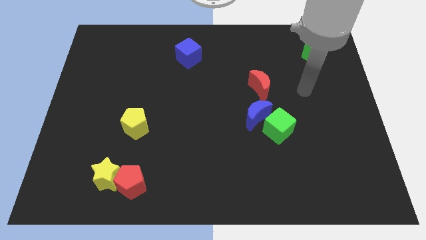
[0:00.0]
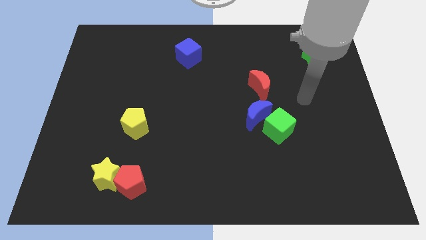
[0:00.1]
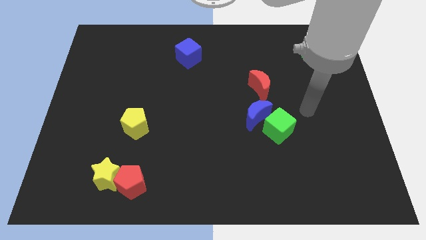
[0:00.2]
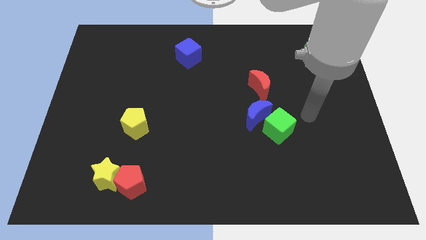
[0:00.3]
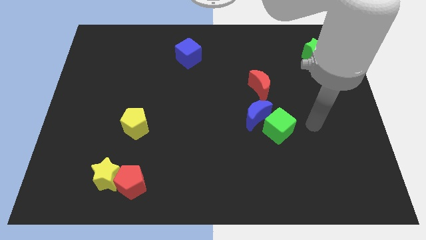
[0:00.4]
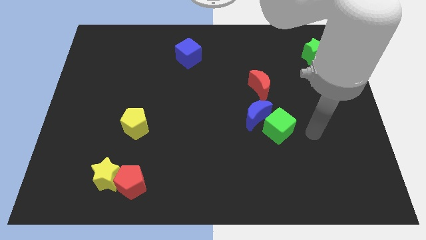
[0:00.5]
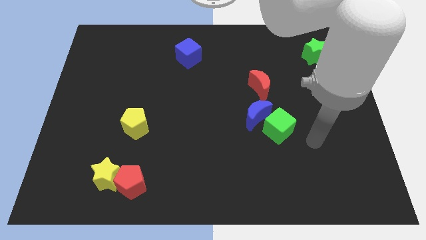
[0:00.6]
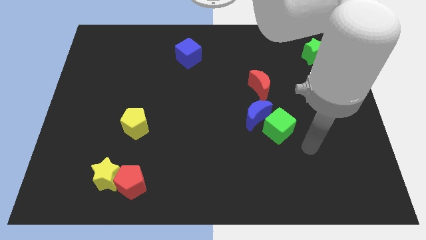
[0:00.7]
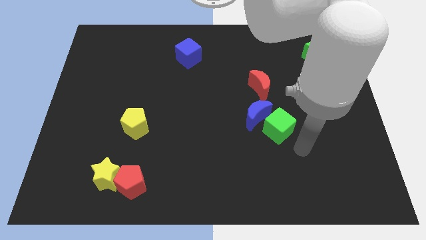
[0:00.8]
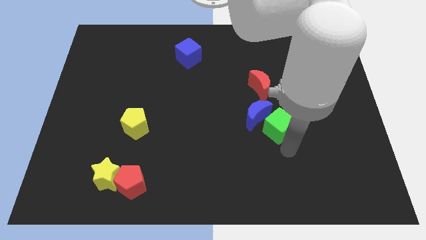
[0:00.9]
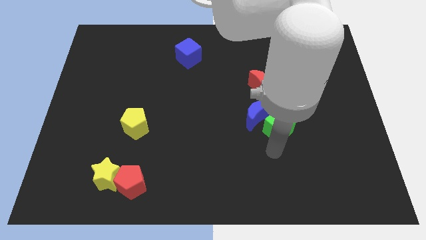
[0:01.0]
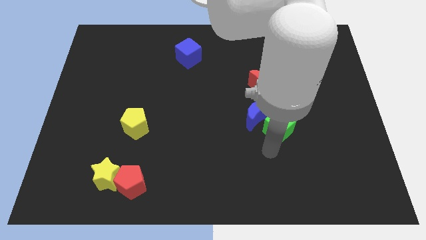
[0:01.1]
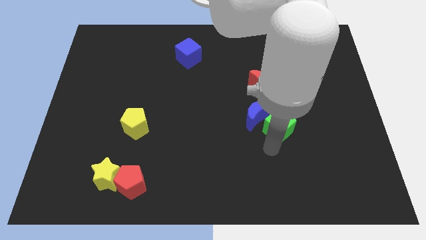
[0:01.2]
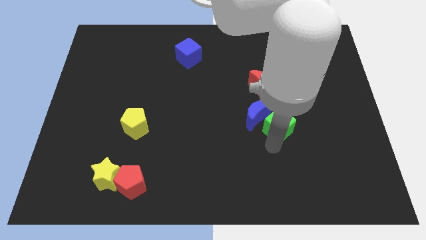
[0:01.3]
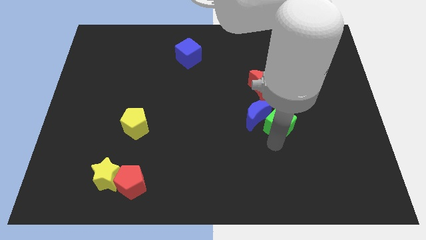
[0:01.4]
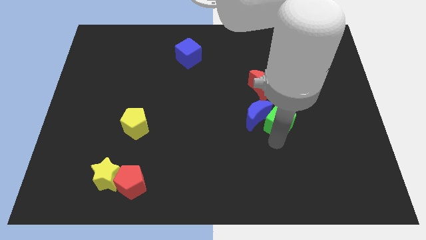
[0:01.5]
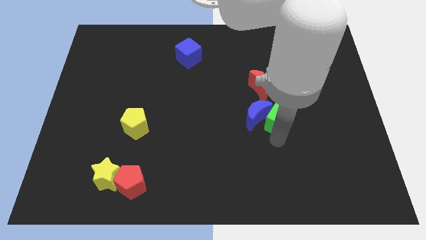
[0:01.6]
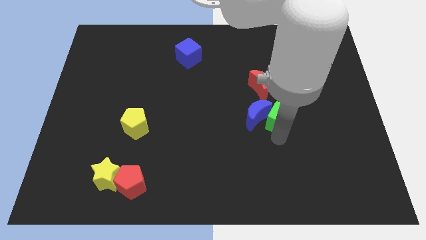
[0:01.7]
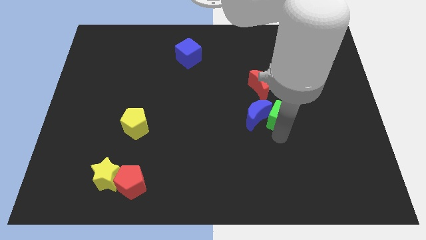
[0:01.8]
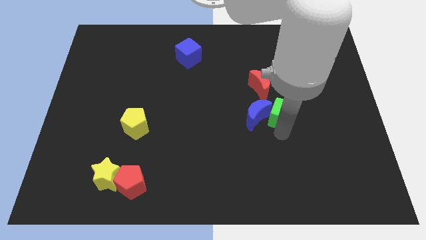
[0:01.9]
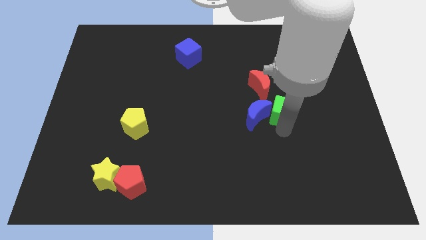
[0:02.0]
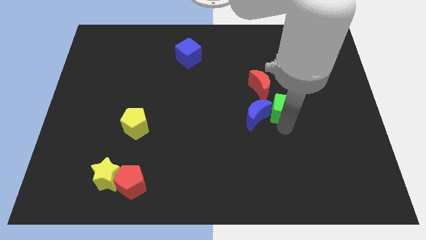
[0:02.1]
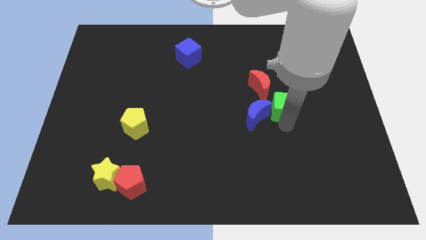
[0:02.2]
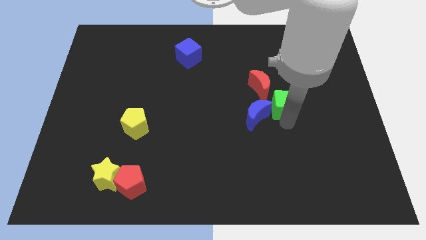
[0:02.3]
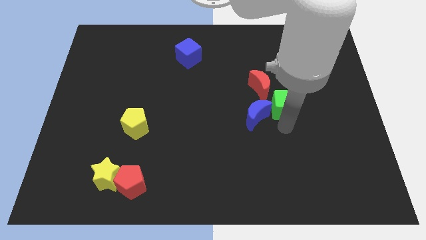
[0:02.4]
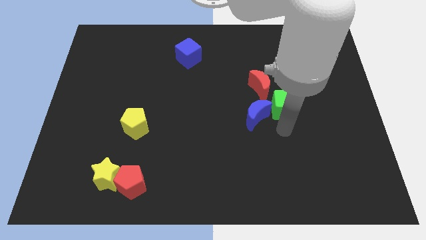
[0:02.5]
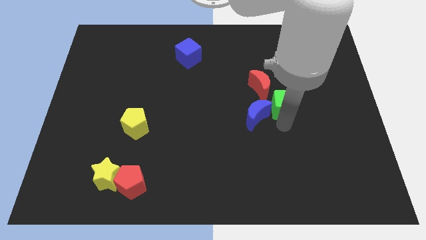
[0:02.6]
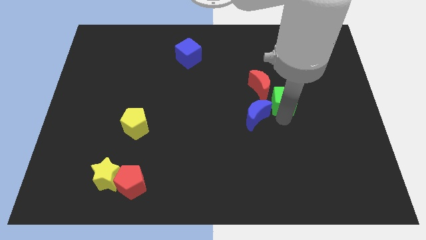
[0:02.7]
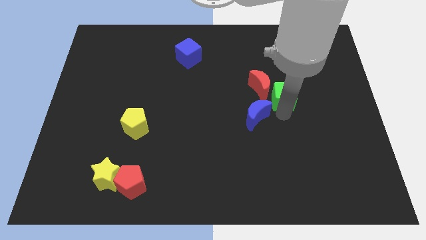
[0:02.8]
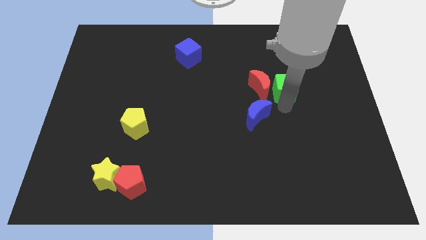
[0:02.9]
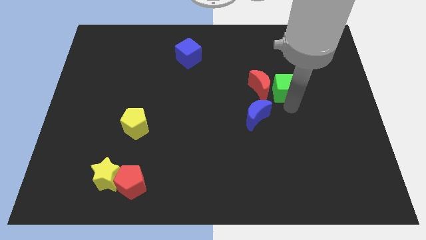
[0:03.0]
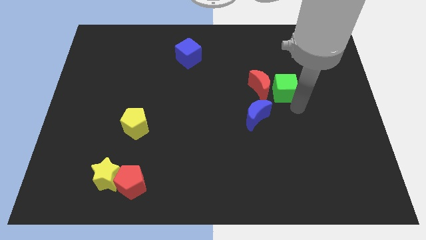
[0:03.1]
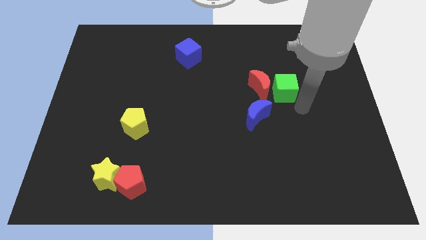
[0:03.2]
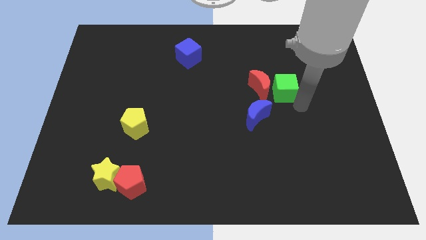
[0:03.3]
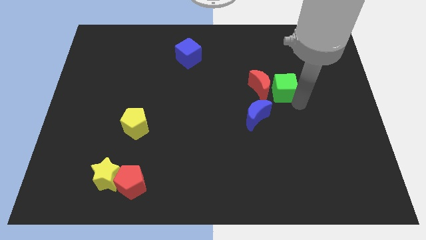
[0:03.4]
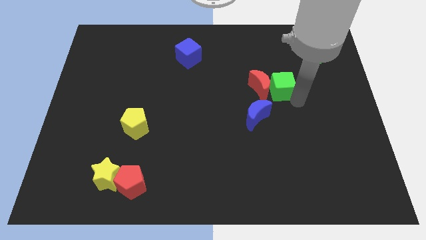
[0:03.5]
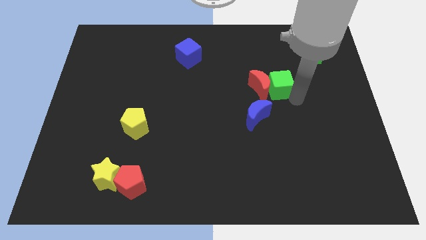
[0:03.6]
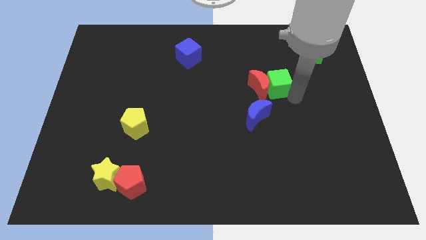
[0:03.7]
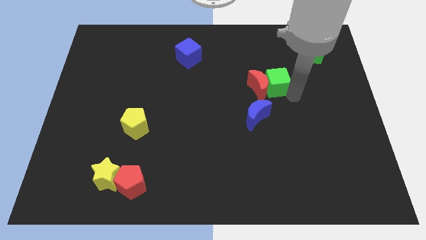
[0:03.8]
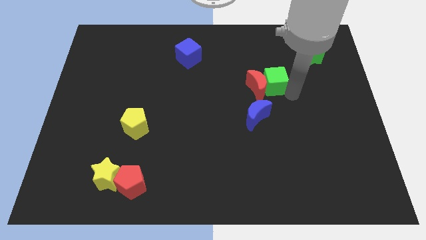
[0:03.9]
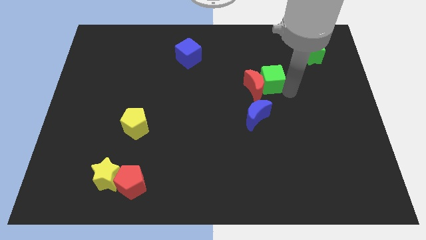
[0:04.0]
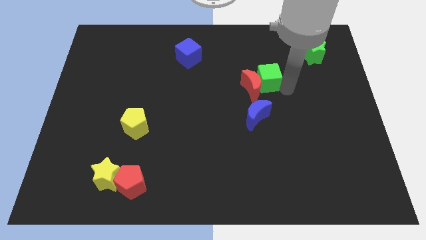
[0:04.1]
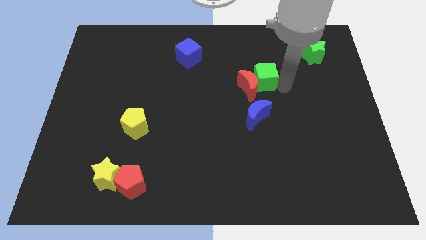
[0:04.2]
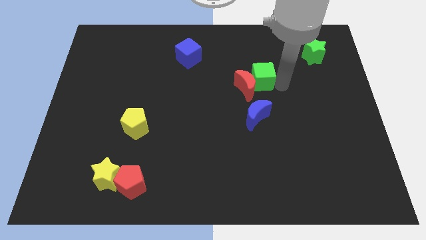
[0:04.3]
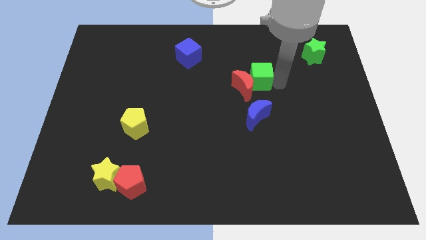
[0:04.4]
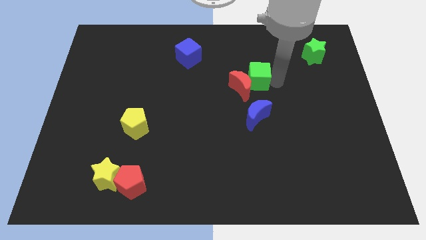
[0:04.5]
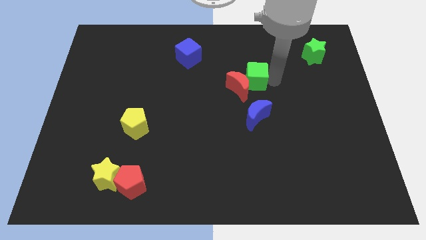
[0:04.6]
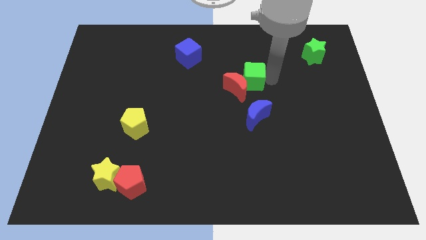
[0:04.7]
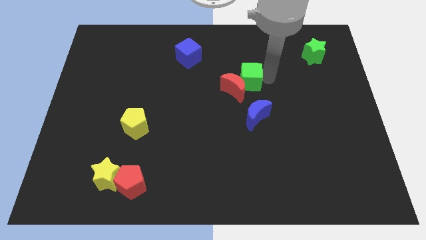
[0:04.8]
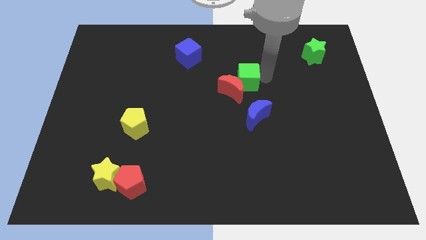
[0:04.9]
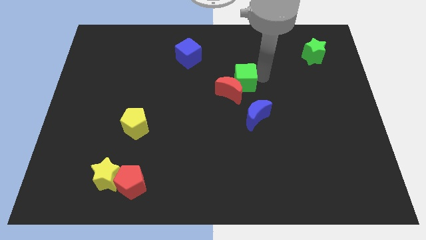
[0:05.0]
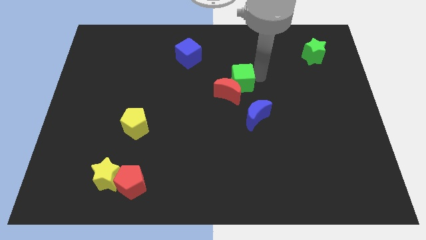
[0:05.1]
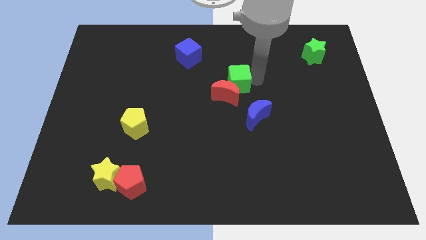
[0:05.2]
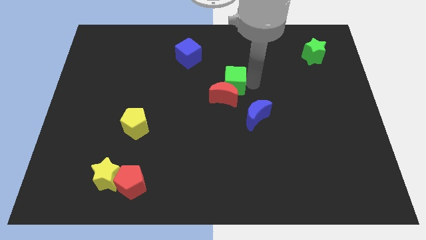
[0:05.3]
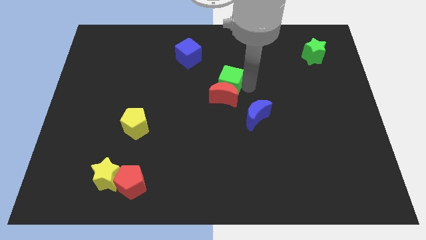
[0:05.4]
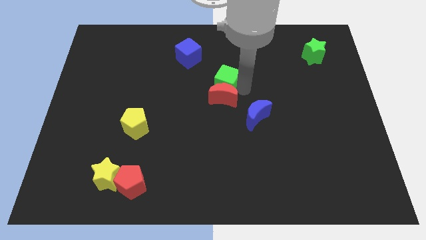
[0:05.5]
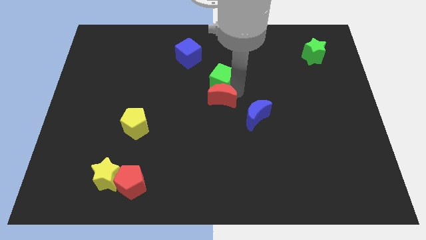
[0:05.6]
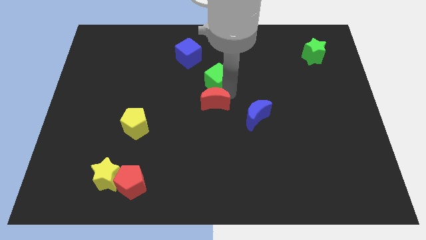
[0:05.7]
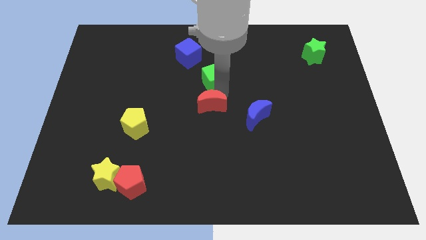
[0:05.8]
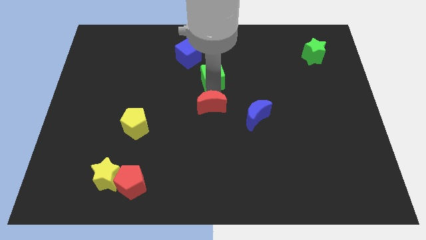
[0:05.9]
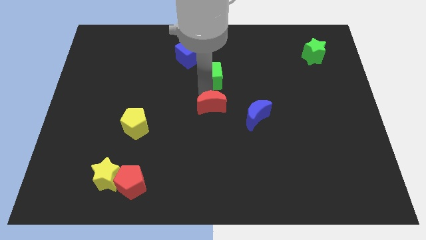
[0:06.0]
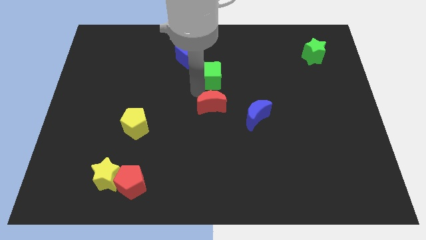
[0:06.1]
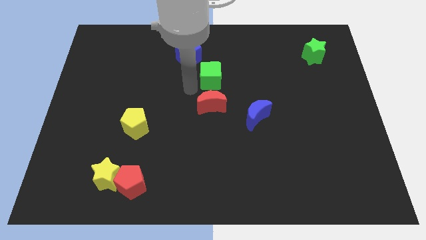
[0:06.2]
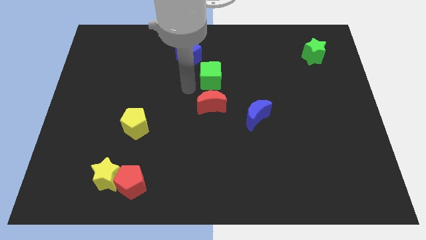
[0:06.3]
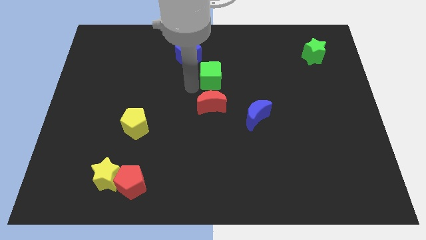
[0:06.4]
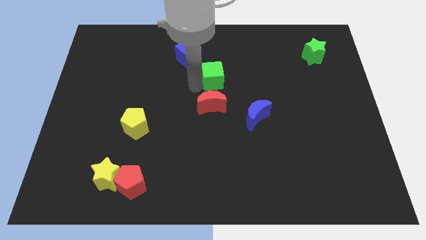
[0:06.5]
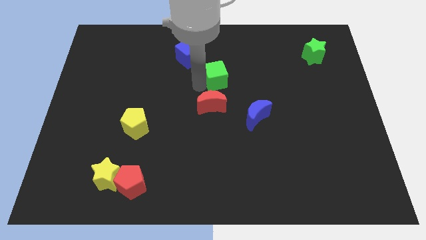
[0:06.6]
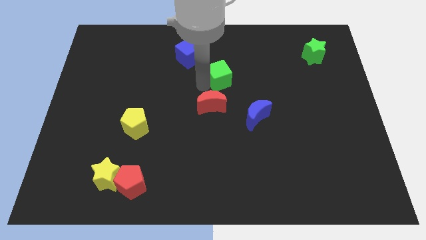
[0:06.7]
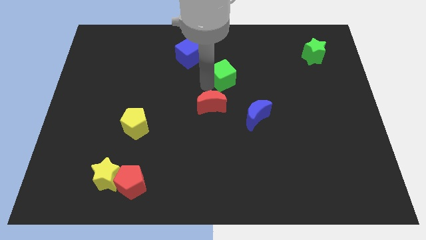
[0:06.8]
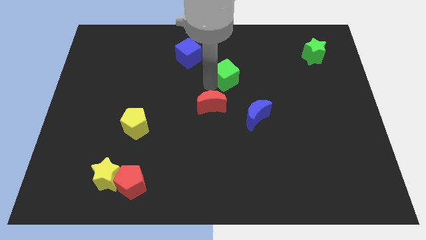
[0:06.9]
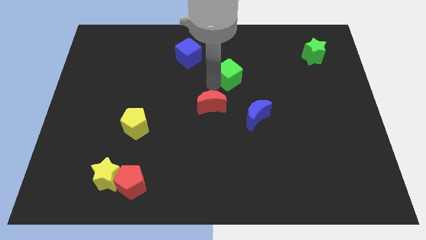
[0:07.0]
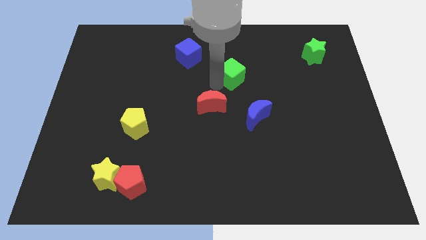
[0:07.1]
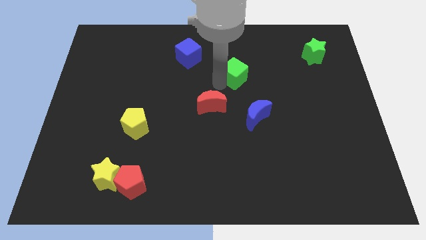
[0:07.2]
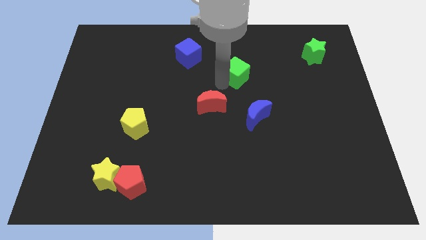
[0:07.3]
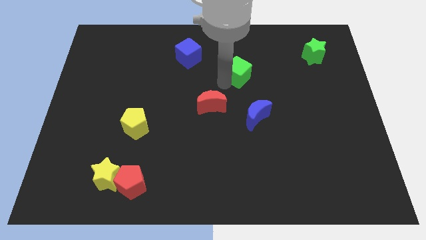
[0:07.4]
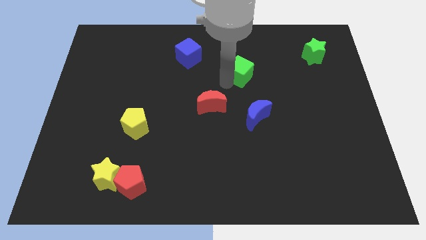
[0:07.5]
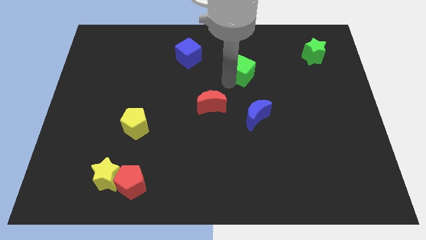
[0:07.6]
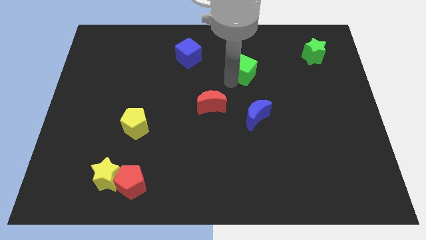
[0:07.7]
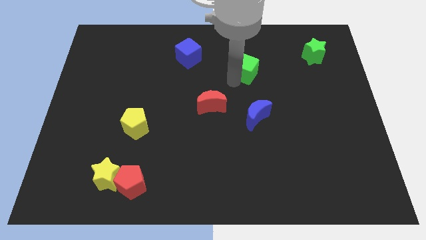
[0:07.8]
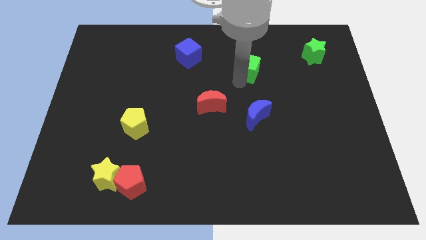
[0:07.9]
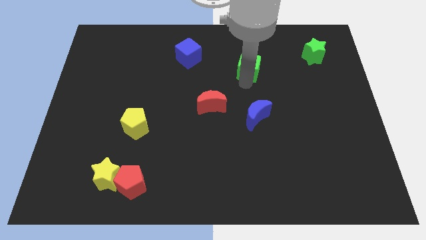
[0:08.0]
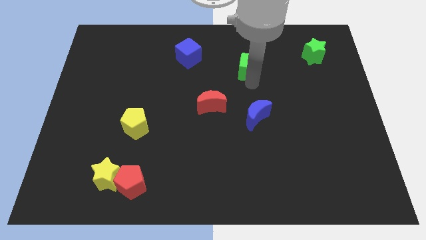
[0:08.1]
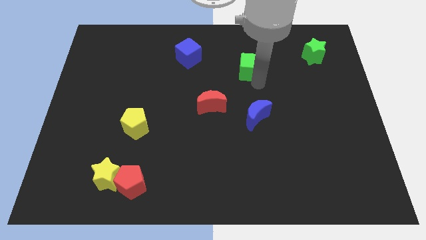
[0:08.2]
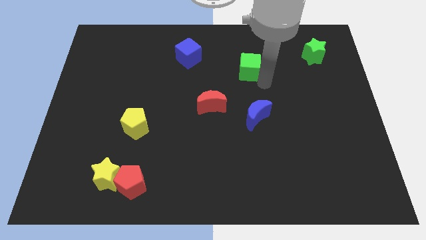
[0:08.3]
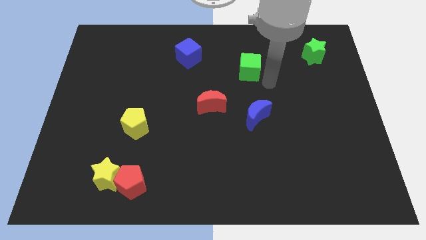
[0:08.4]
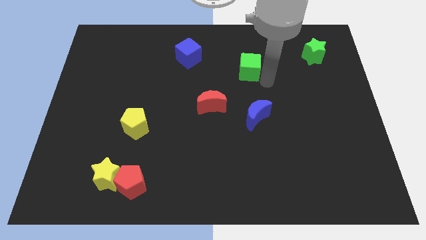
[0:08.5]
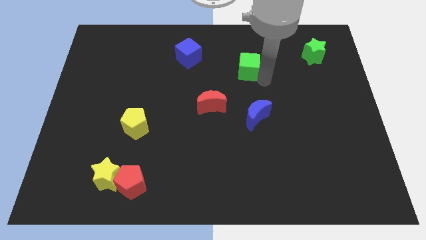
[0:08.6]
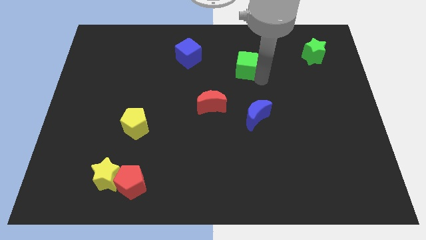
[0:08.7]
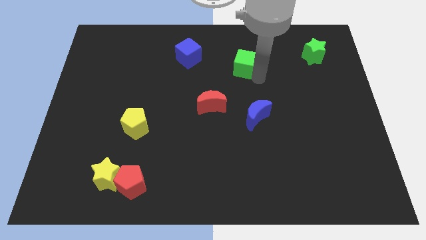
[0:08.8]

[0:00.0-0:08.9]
slide the green cube right of the blue cube
